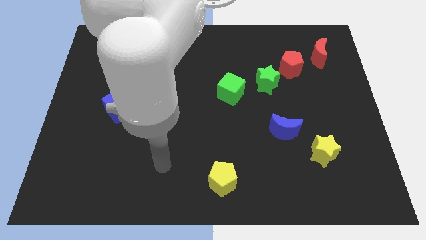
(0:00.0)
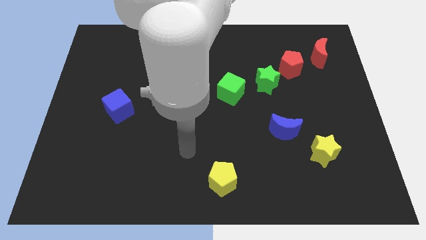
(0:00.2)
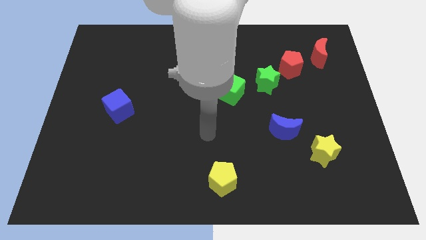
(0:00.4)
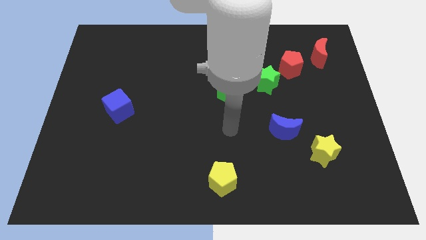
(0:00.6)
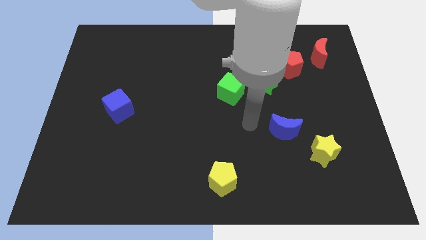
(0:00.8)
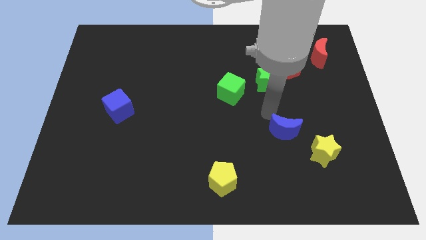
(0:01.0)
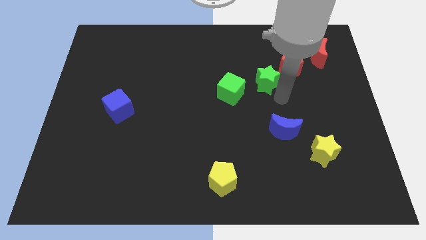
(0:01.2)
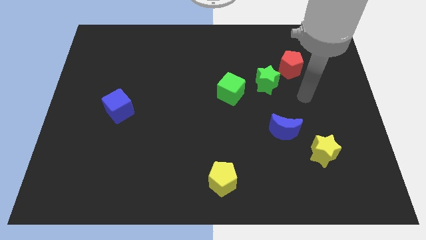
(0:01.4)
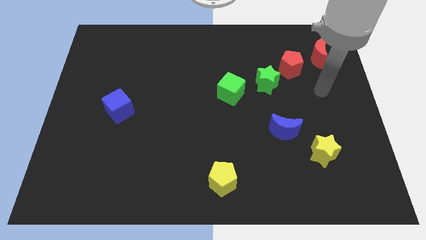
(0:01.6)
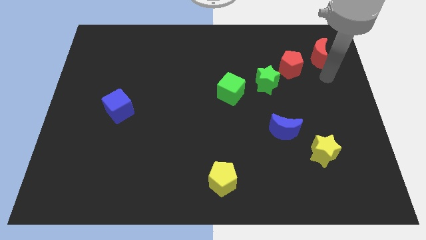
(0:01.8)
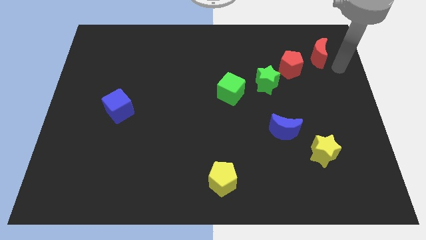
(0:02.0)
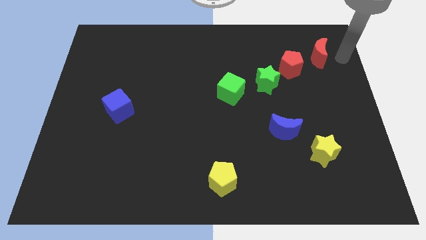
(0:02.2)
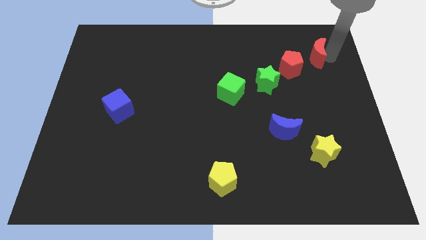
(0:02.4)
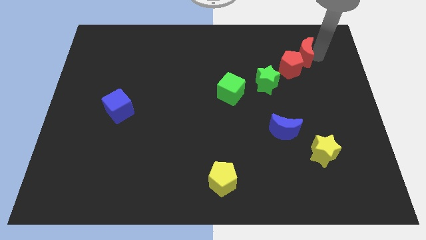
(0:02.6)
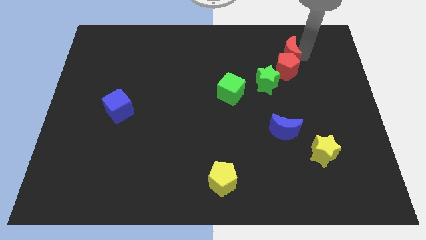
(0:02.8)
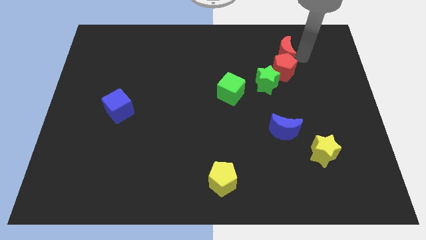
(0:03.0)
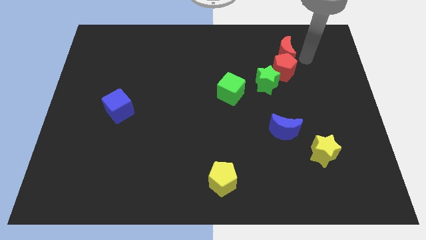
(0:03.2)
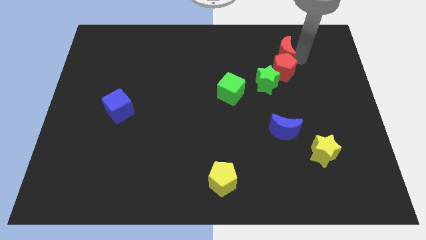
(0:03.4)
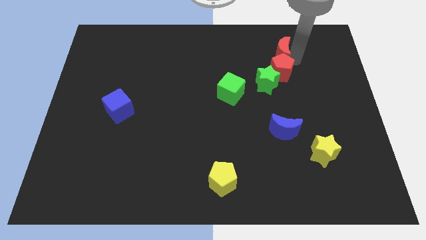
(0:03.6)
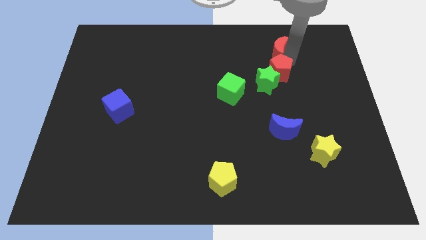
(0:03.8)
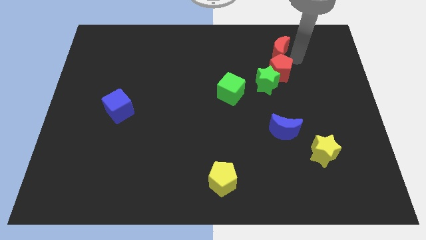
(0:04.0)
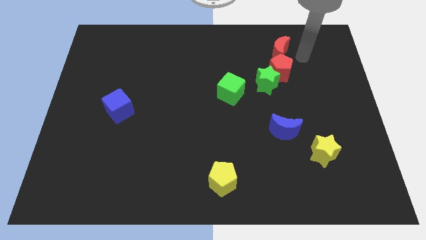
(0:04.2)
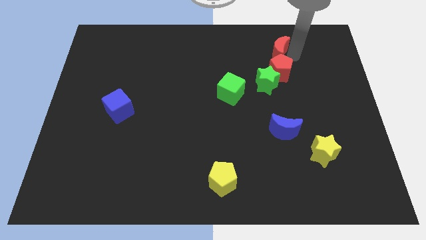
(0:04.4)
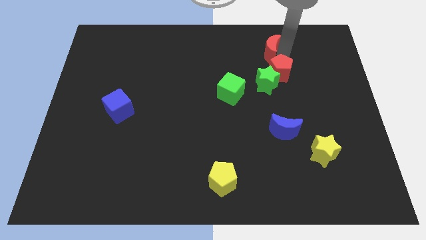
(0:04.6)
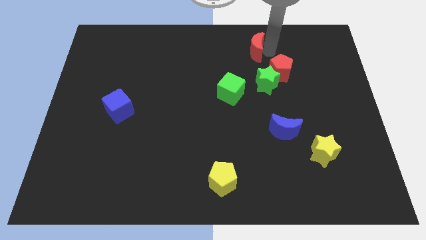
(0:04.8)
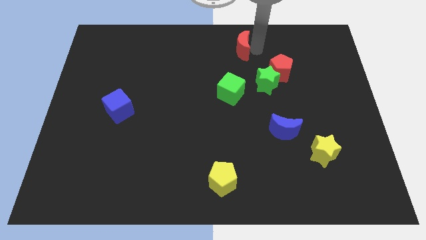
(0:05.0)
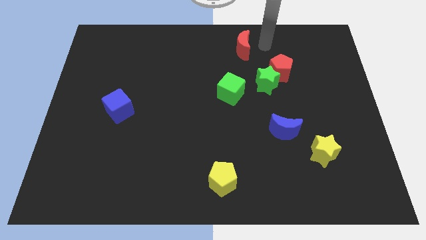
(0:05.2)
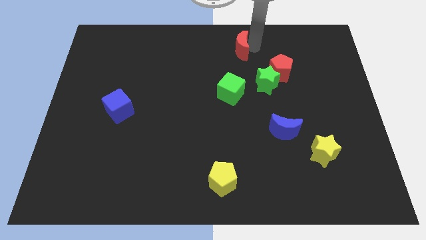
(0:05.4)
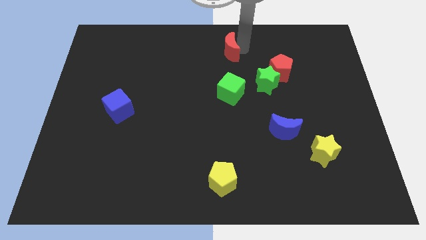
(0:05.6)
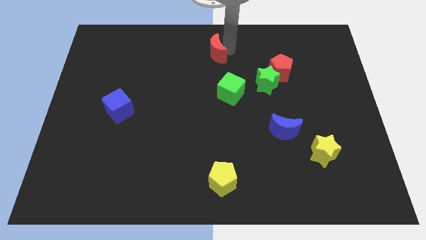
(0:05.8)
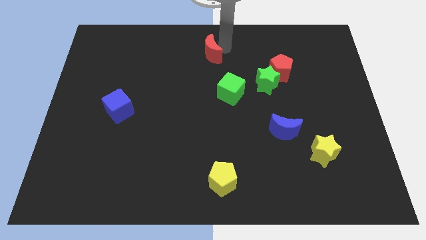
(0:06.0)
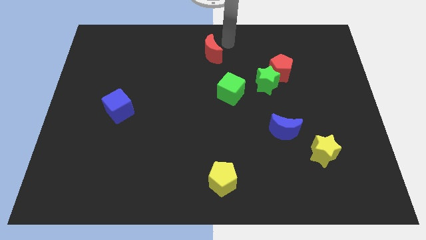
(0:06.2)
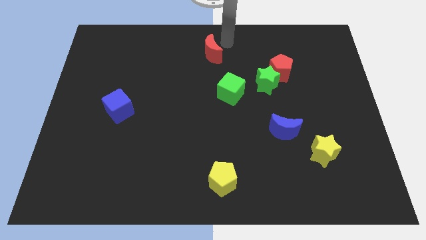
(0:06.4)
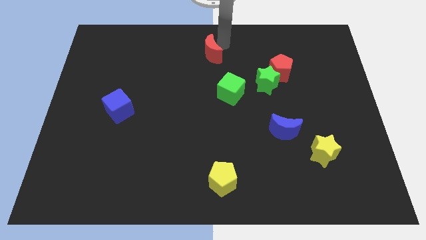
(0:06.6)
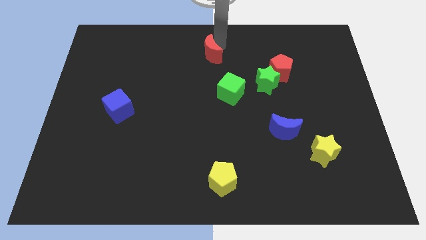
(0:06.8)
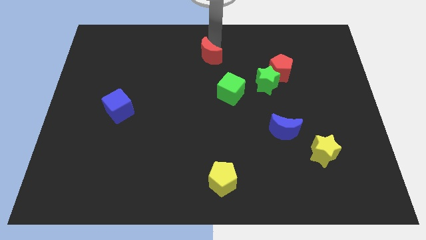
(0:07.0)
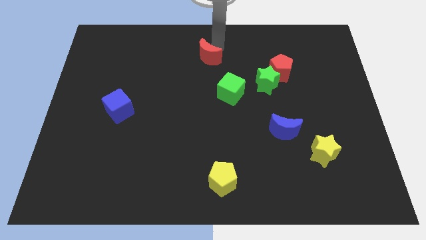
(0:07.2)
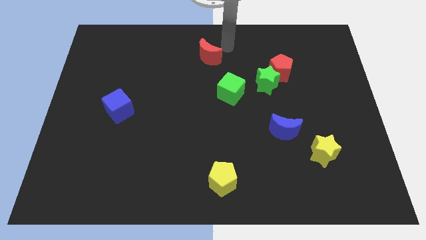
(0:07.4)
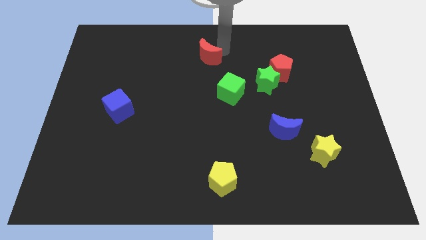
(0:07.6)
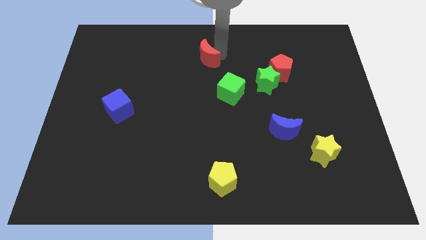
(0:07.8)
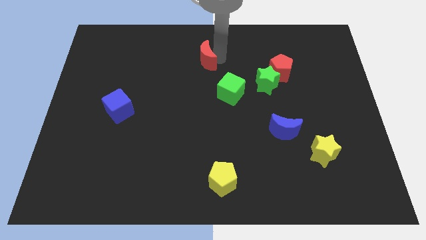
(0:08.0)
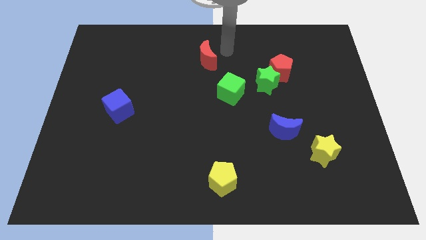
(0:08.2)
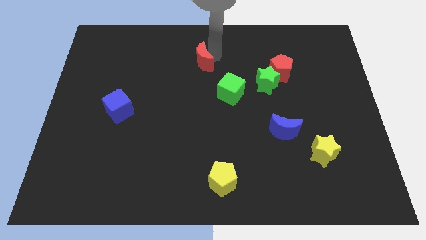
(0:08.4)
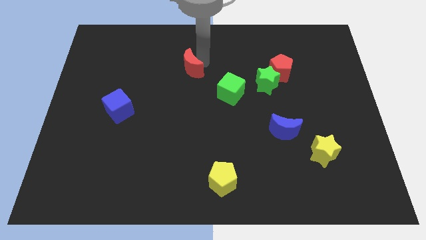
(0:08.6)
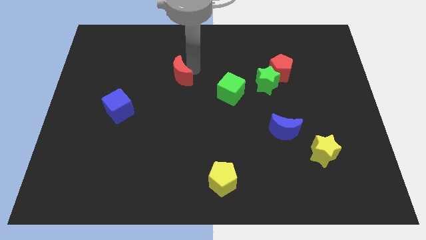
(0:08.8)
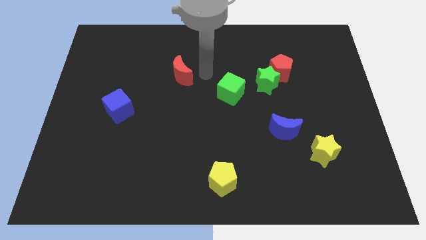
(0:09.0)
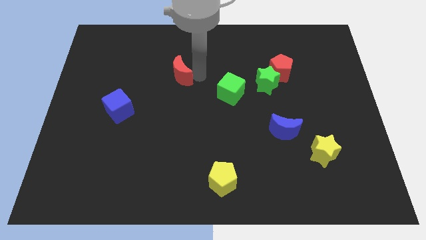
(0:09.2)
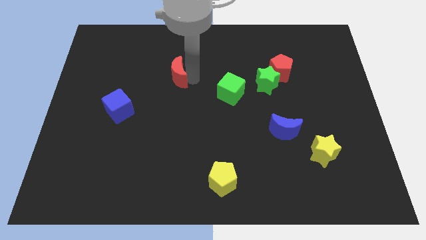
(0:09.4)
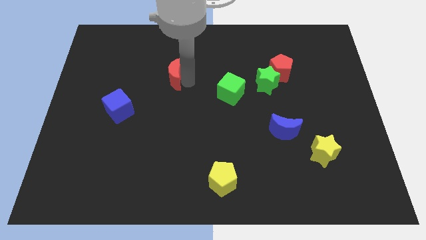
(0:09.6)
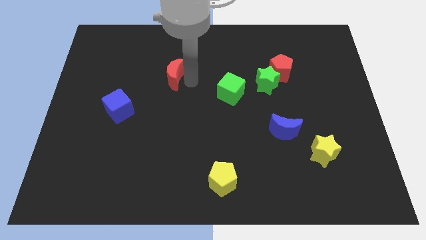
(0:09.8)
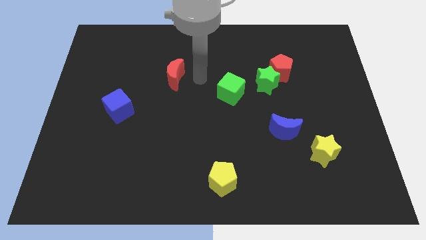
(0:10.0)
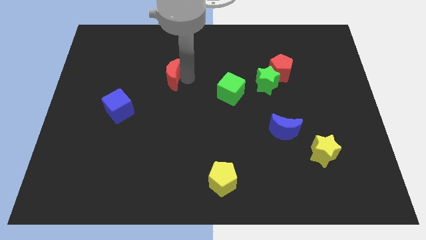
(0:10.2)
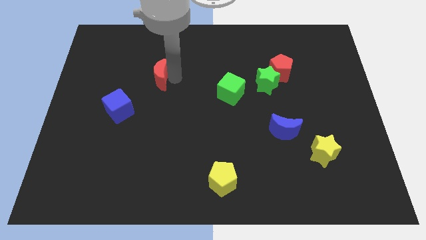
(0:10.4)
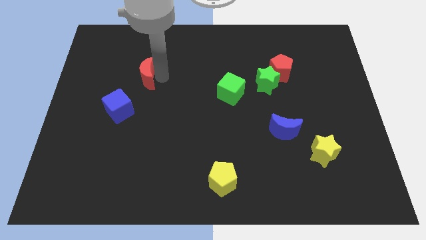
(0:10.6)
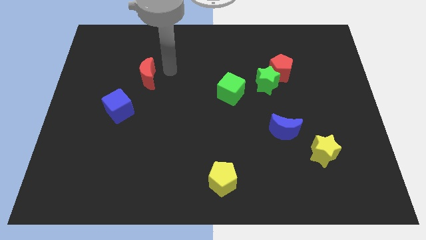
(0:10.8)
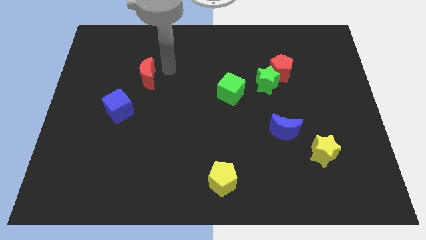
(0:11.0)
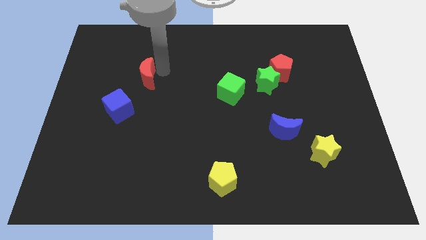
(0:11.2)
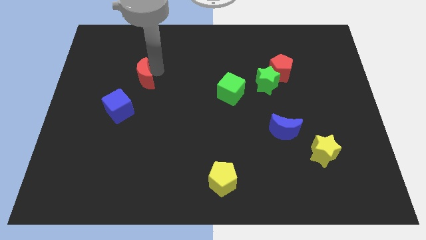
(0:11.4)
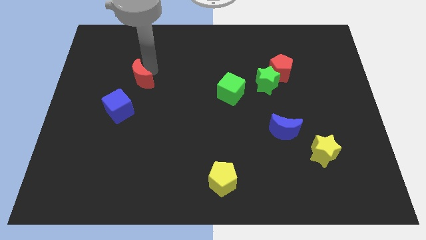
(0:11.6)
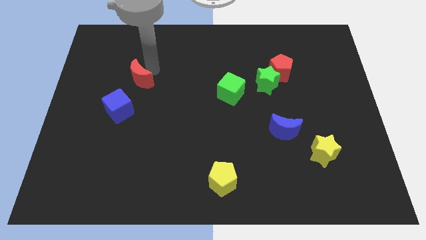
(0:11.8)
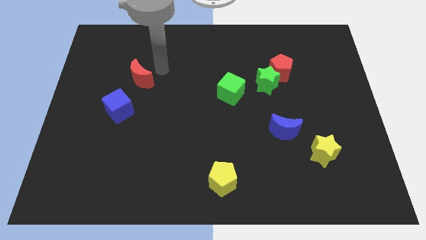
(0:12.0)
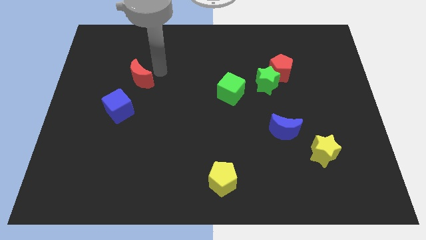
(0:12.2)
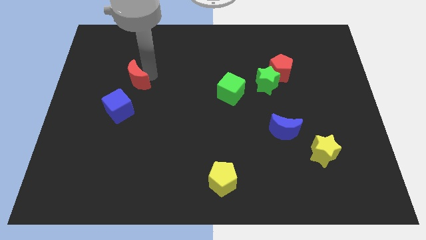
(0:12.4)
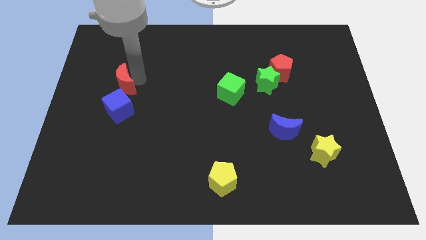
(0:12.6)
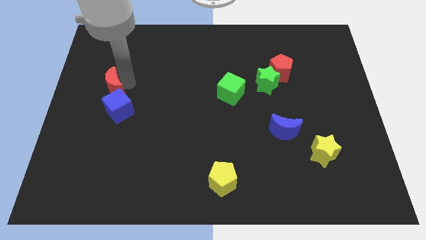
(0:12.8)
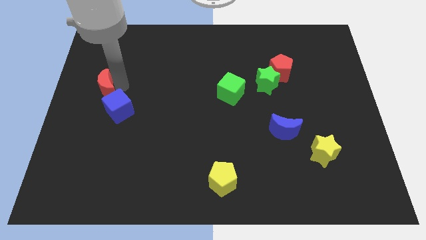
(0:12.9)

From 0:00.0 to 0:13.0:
put the red moon to the left side
